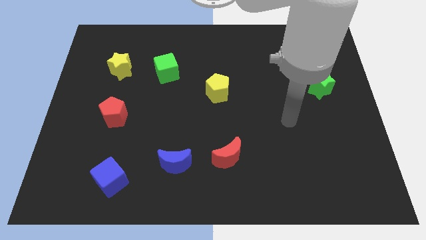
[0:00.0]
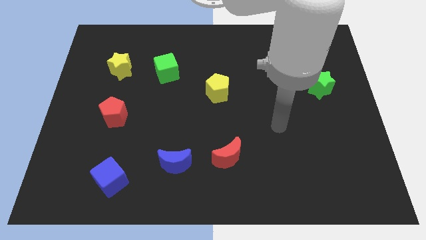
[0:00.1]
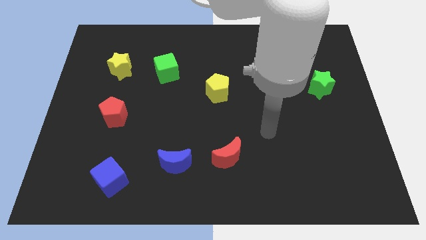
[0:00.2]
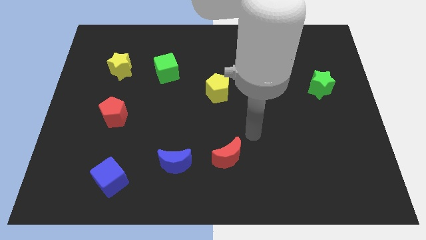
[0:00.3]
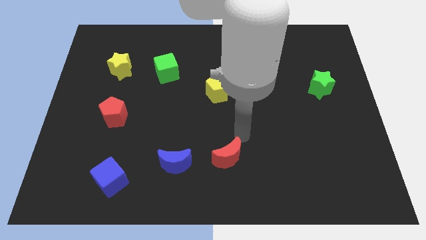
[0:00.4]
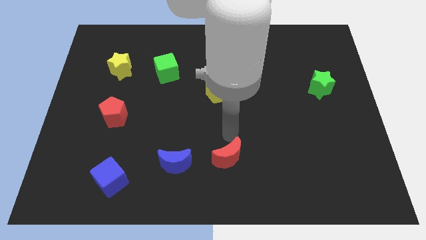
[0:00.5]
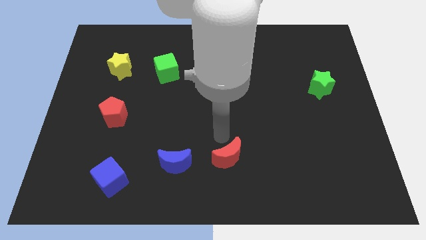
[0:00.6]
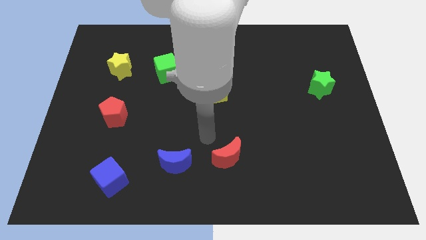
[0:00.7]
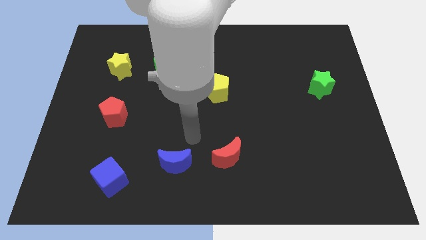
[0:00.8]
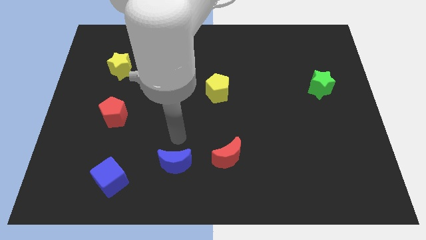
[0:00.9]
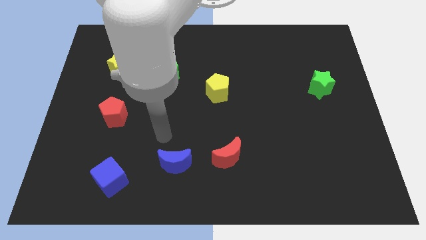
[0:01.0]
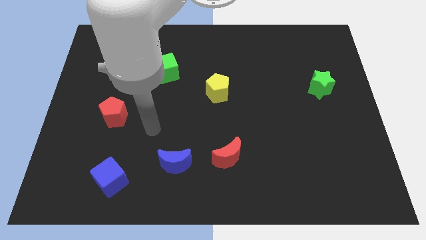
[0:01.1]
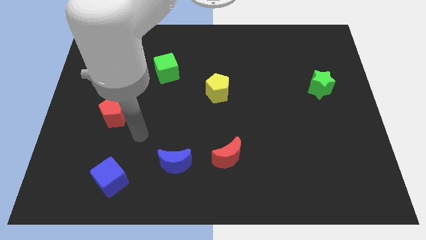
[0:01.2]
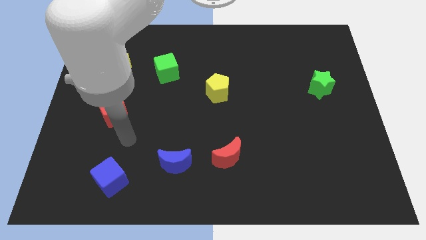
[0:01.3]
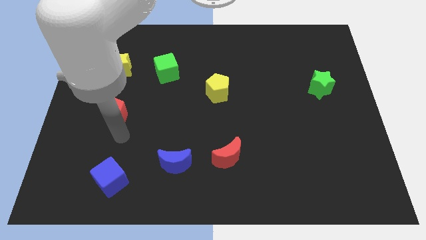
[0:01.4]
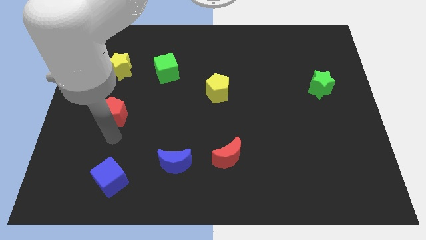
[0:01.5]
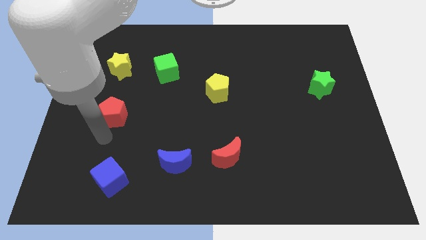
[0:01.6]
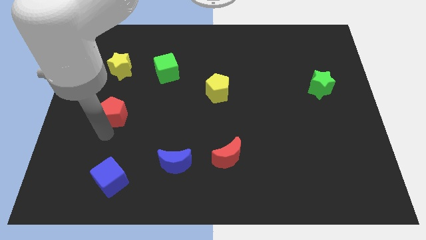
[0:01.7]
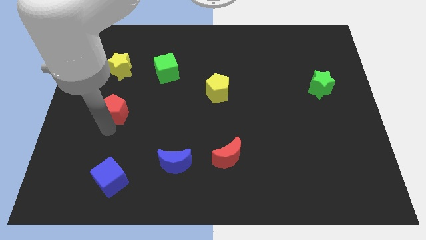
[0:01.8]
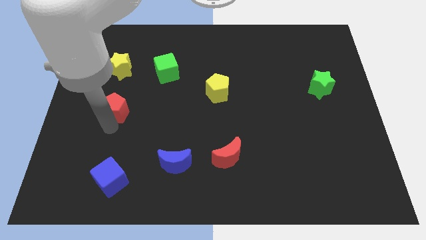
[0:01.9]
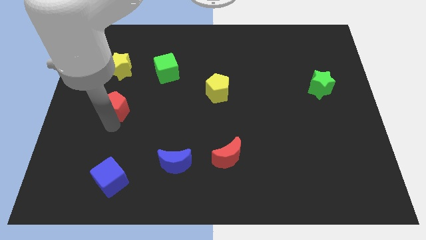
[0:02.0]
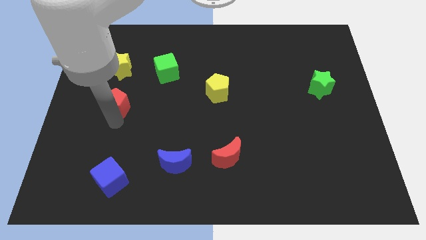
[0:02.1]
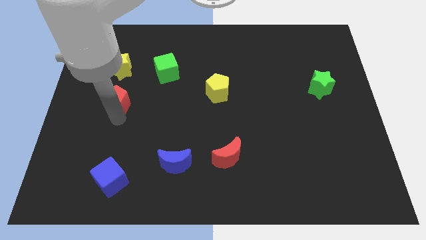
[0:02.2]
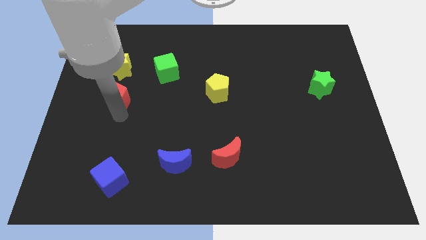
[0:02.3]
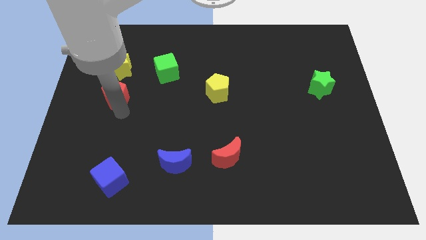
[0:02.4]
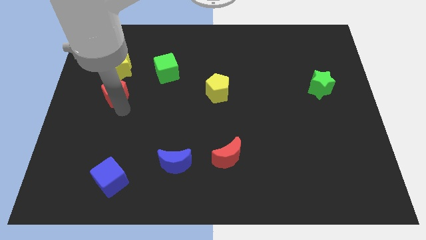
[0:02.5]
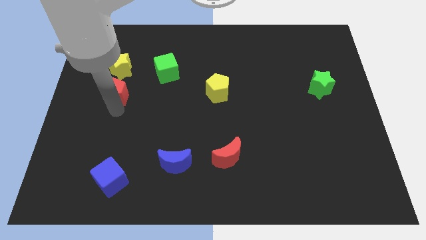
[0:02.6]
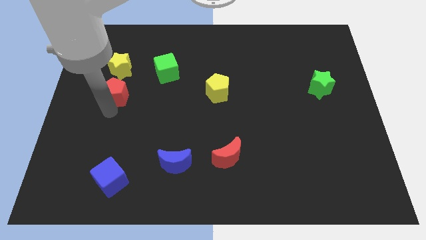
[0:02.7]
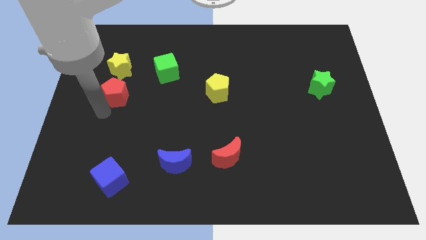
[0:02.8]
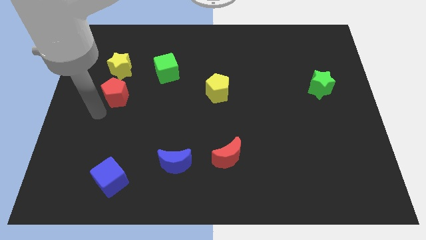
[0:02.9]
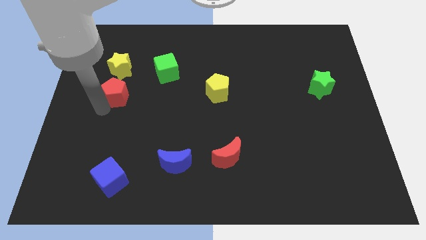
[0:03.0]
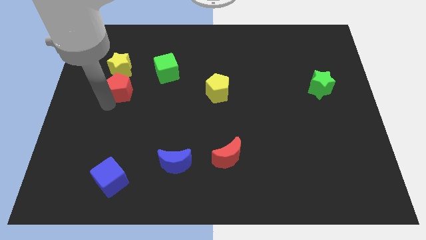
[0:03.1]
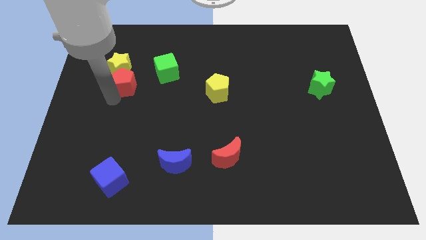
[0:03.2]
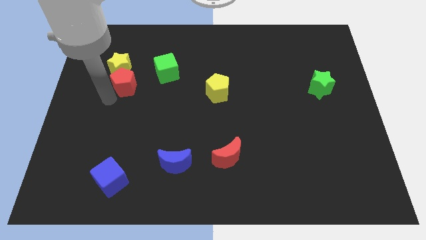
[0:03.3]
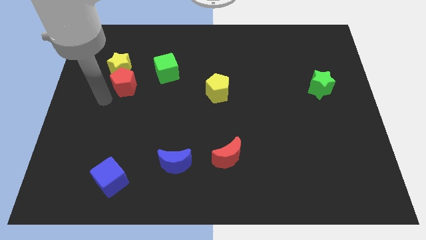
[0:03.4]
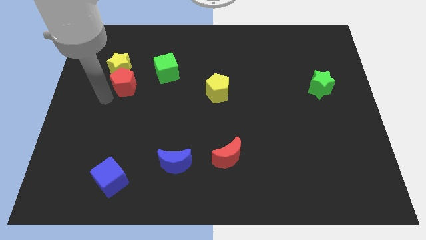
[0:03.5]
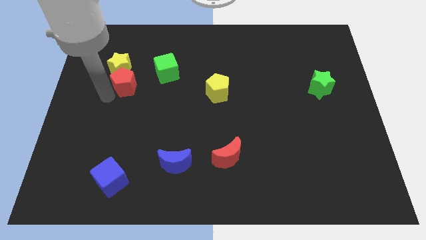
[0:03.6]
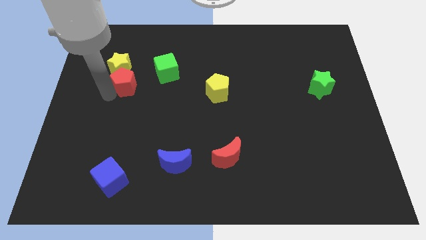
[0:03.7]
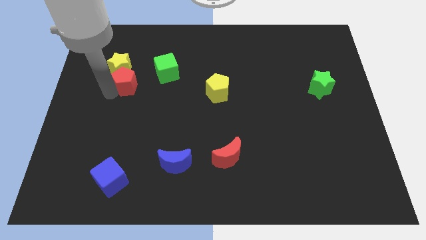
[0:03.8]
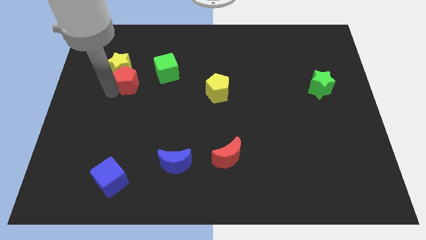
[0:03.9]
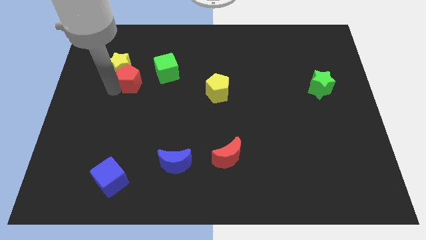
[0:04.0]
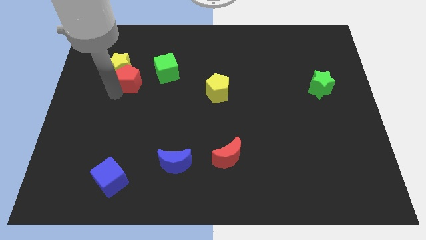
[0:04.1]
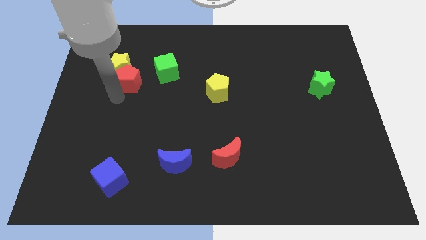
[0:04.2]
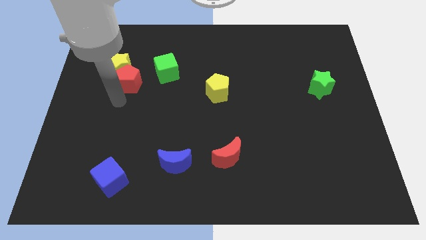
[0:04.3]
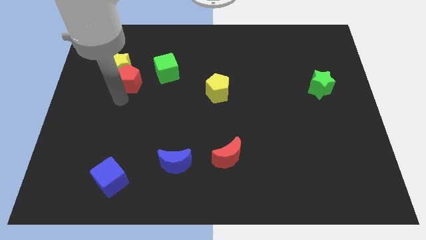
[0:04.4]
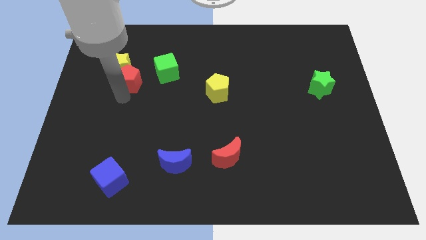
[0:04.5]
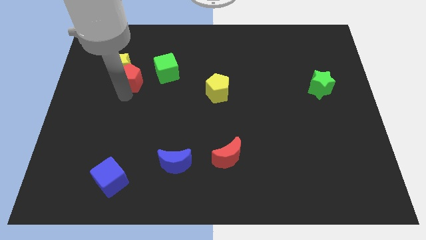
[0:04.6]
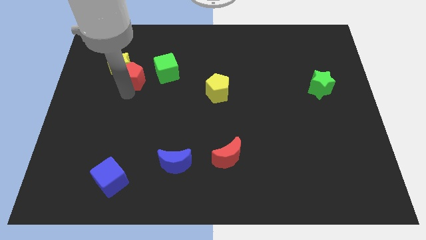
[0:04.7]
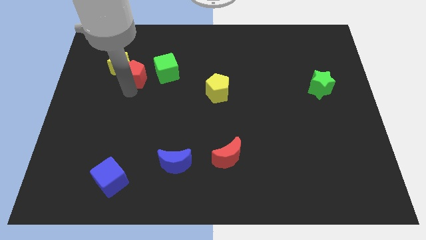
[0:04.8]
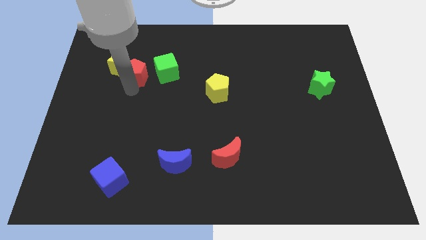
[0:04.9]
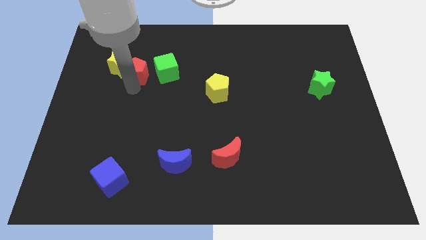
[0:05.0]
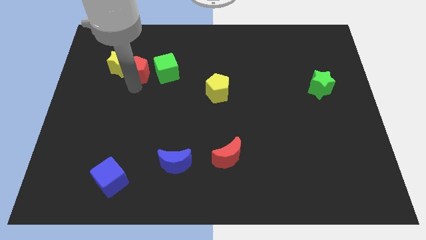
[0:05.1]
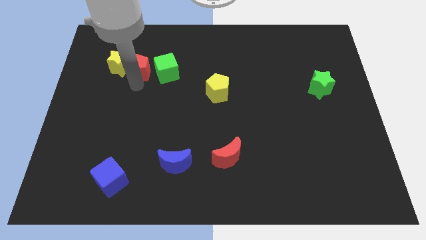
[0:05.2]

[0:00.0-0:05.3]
slide the red pentagon to the top right side of the yellow star

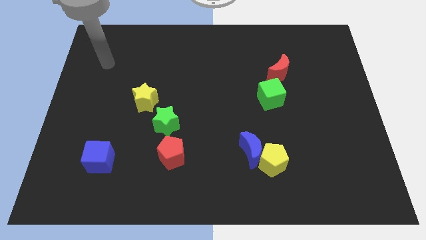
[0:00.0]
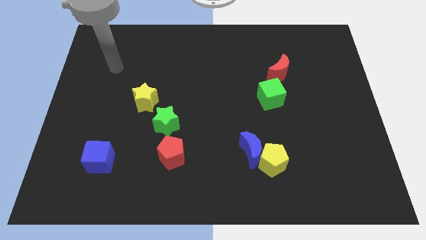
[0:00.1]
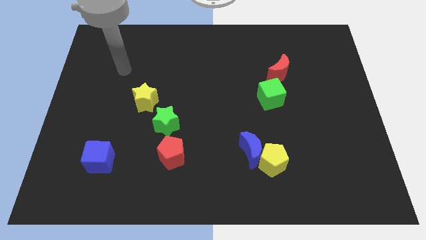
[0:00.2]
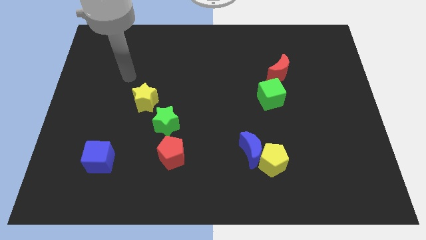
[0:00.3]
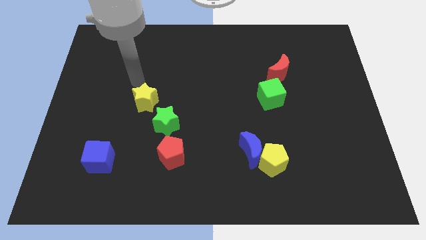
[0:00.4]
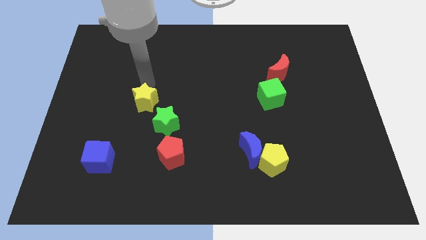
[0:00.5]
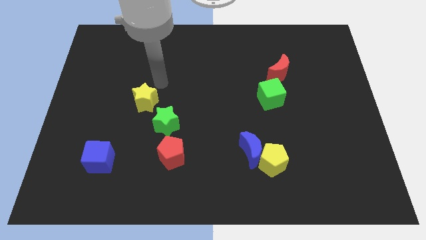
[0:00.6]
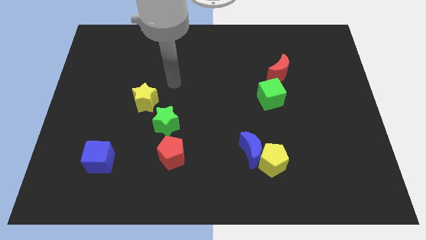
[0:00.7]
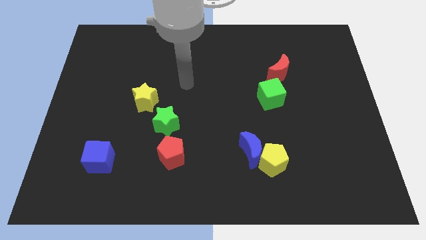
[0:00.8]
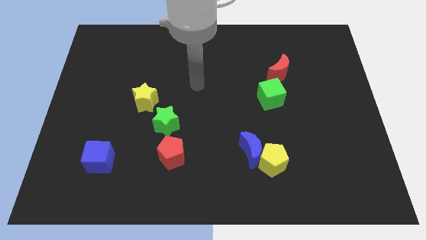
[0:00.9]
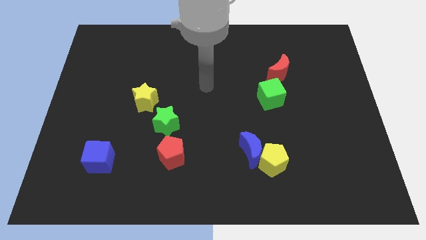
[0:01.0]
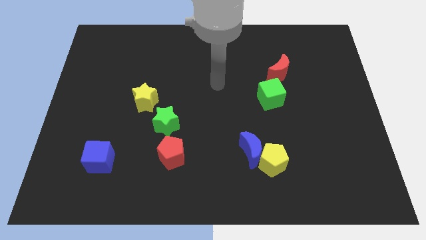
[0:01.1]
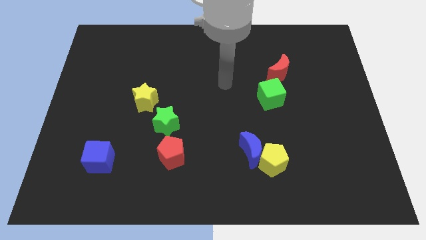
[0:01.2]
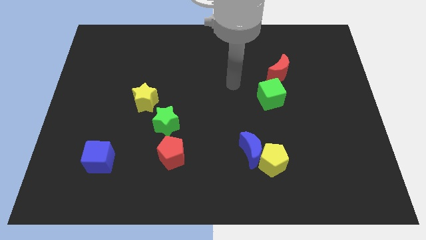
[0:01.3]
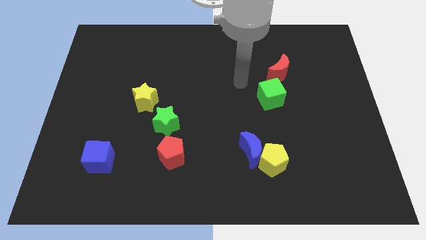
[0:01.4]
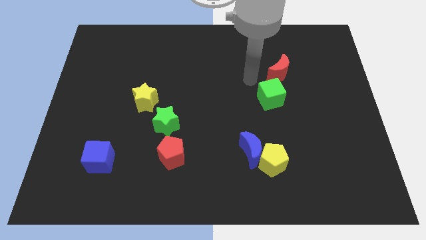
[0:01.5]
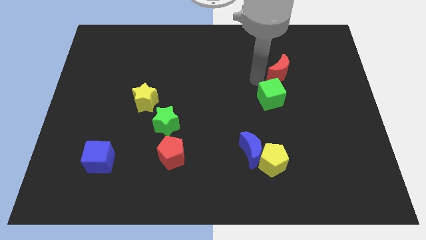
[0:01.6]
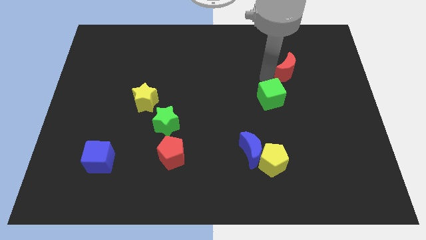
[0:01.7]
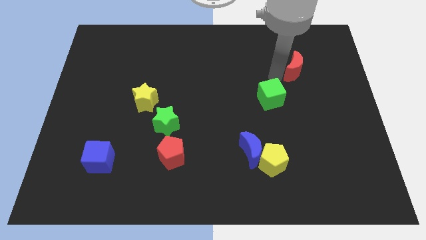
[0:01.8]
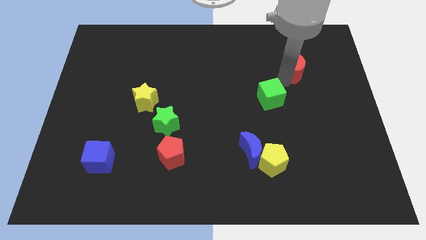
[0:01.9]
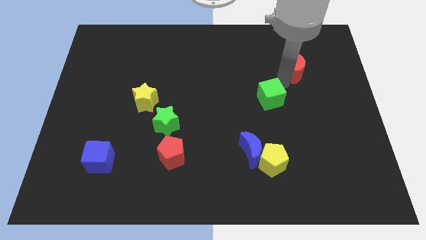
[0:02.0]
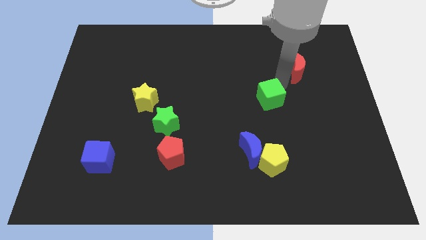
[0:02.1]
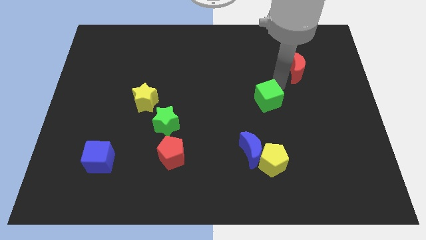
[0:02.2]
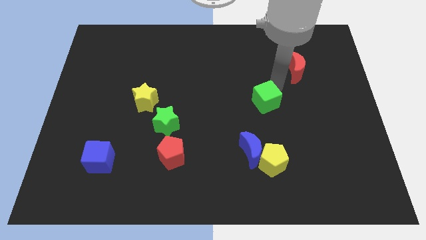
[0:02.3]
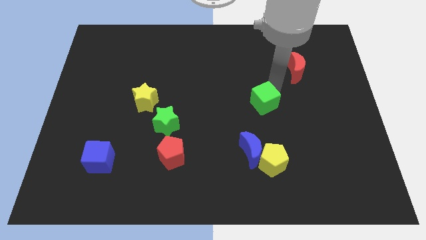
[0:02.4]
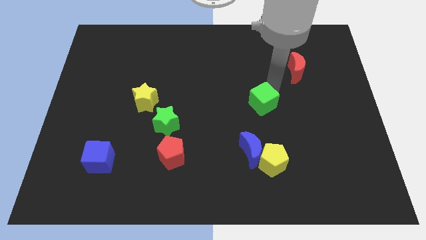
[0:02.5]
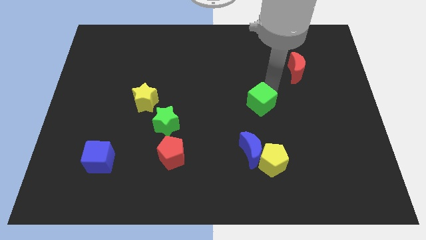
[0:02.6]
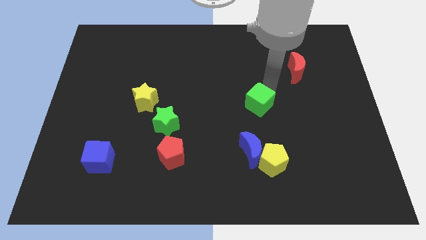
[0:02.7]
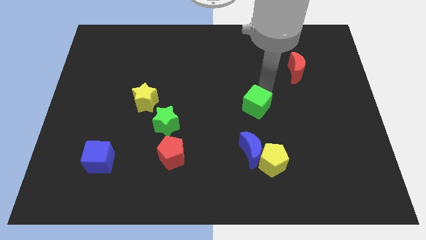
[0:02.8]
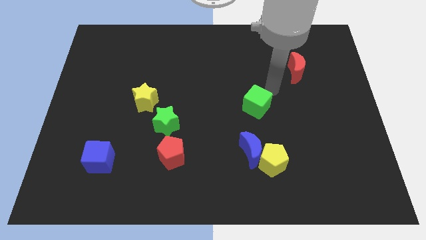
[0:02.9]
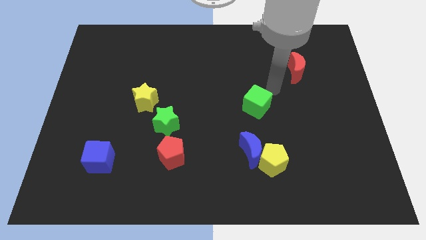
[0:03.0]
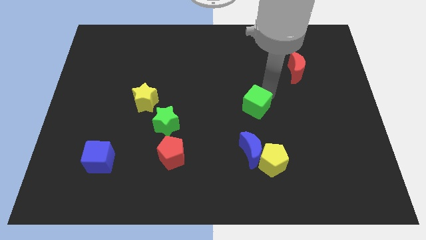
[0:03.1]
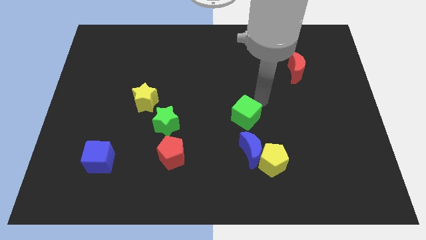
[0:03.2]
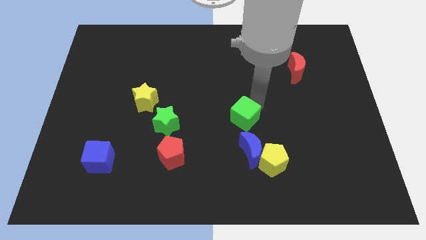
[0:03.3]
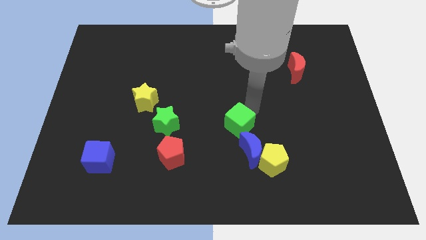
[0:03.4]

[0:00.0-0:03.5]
move the green cube to the top left of the blue moon
